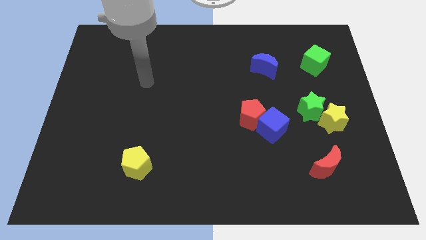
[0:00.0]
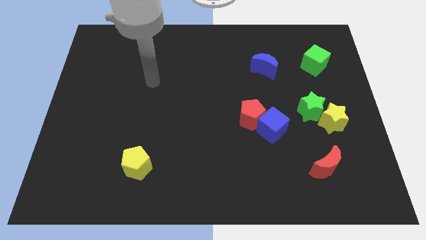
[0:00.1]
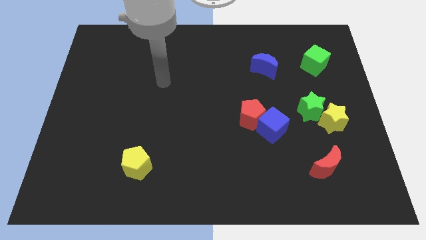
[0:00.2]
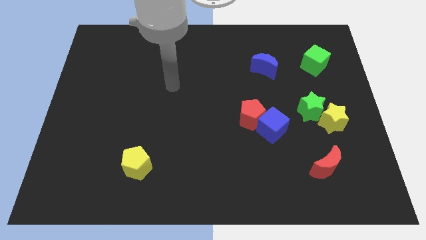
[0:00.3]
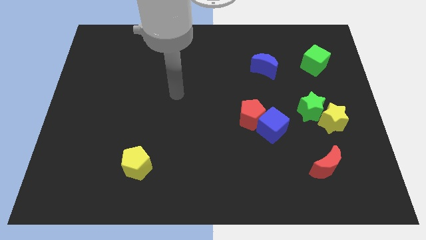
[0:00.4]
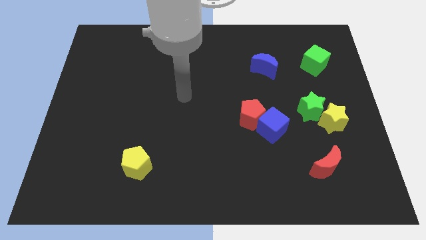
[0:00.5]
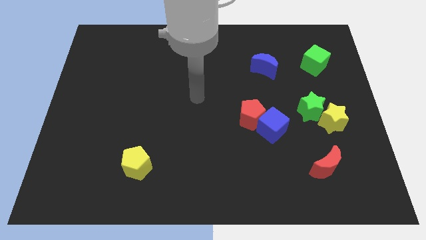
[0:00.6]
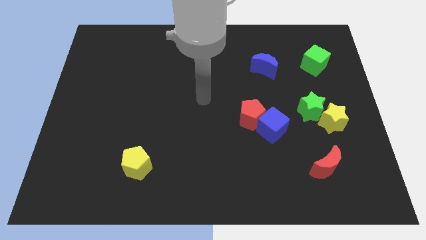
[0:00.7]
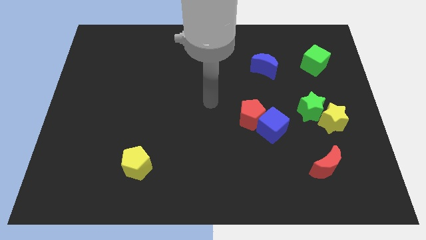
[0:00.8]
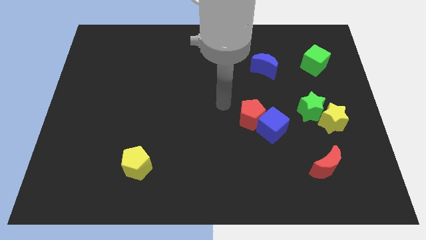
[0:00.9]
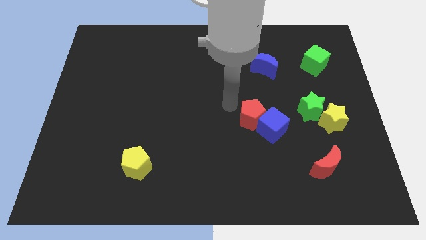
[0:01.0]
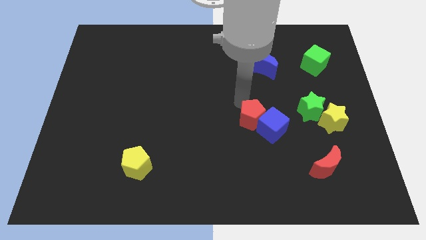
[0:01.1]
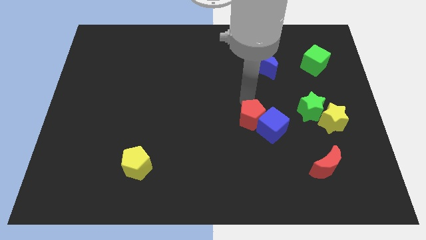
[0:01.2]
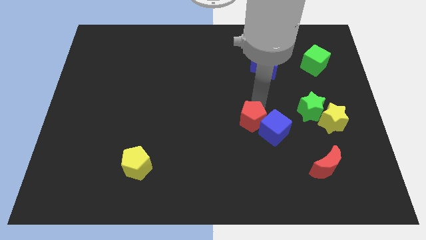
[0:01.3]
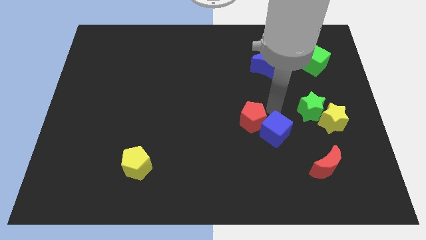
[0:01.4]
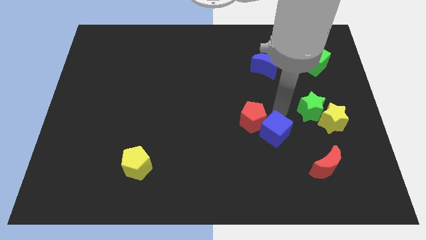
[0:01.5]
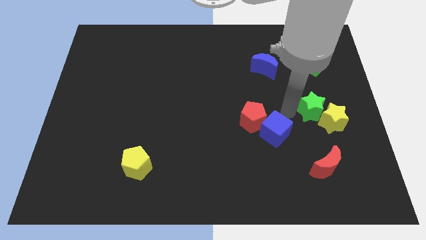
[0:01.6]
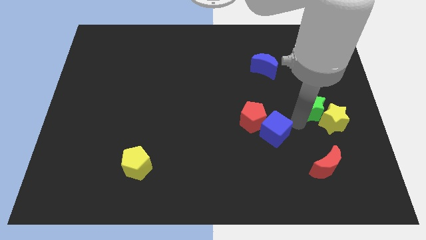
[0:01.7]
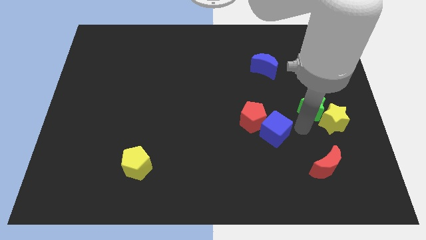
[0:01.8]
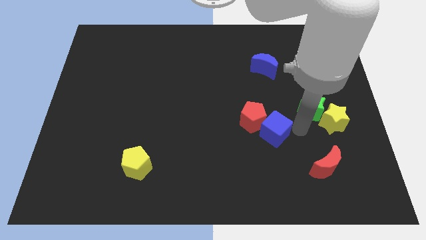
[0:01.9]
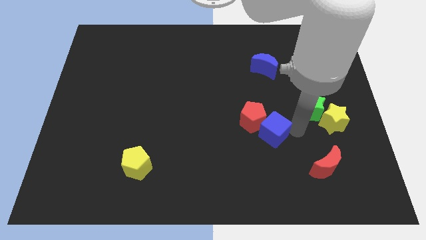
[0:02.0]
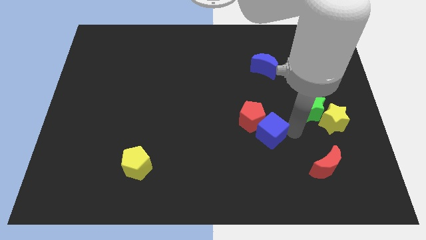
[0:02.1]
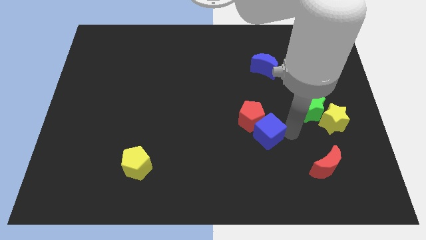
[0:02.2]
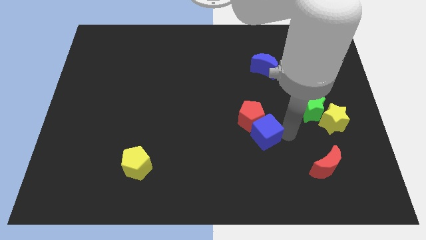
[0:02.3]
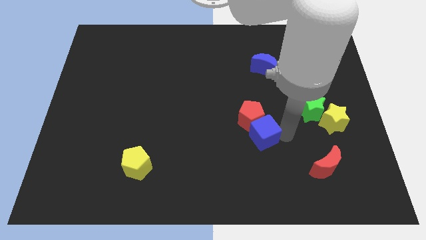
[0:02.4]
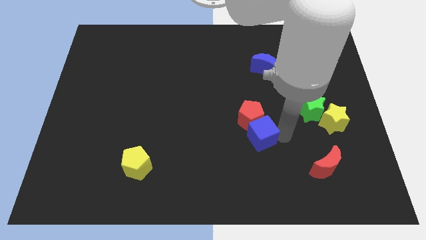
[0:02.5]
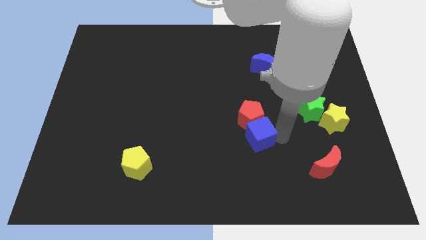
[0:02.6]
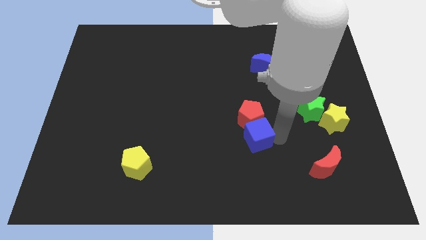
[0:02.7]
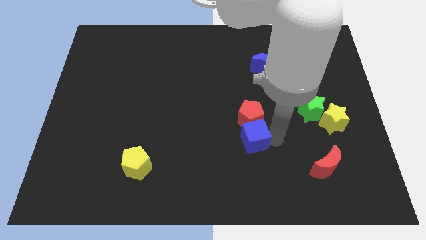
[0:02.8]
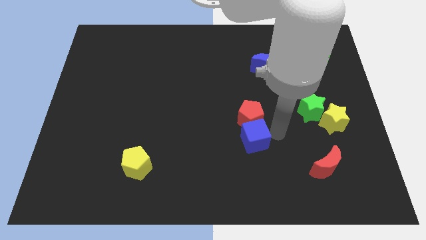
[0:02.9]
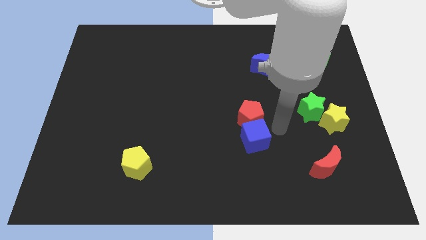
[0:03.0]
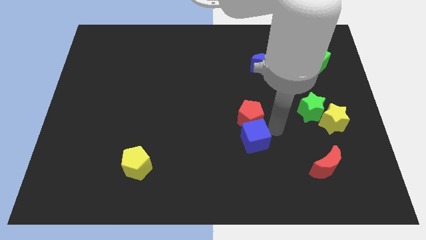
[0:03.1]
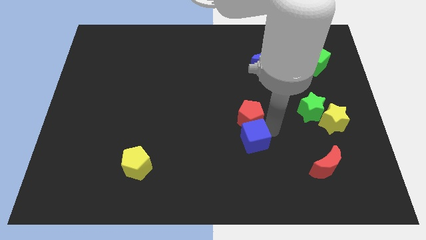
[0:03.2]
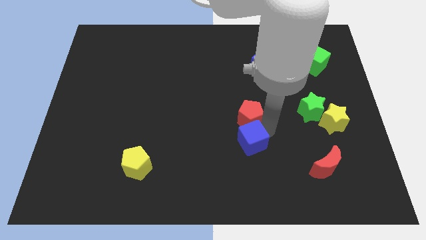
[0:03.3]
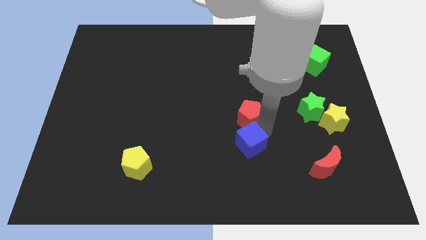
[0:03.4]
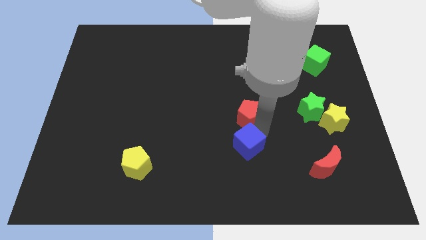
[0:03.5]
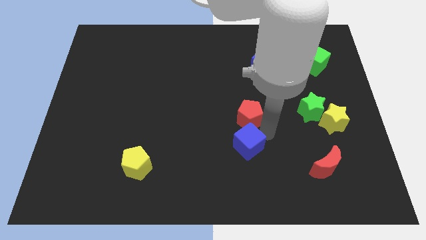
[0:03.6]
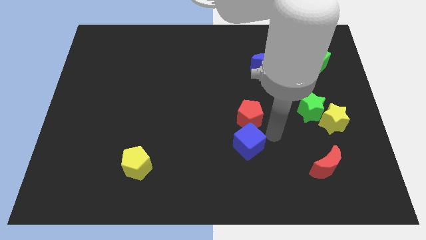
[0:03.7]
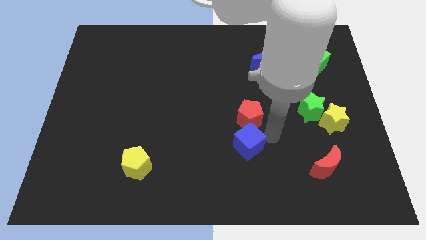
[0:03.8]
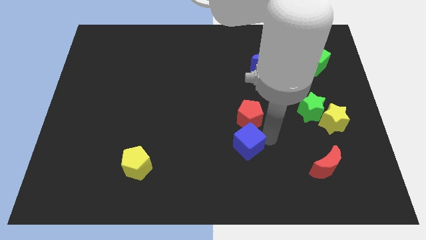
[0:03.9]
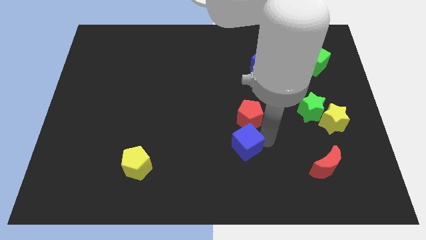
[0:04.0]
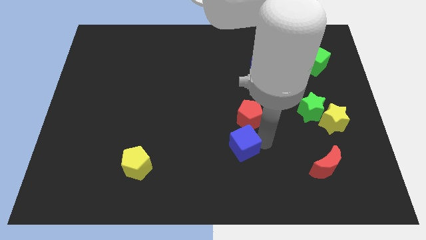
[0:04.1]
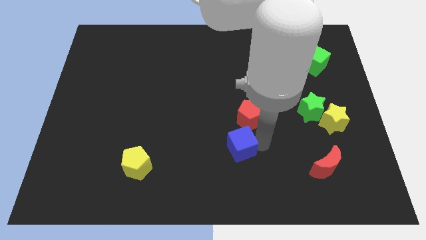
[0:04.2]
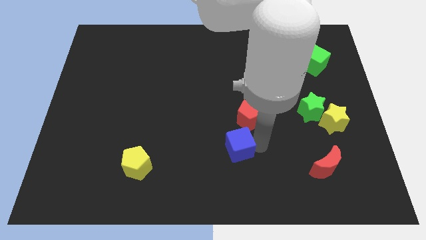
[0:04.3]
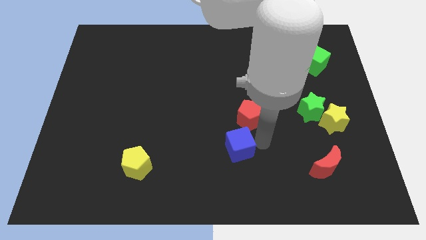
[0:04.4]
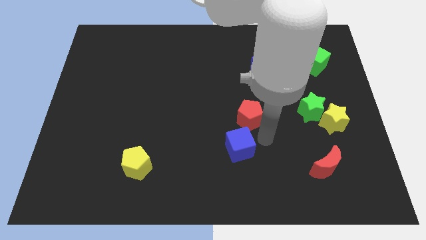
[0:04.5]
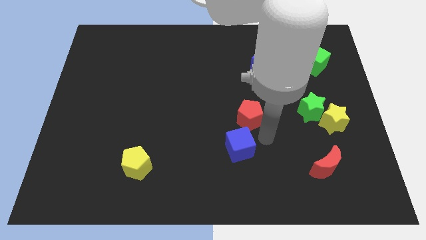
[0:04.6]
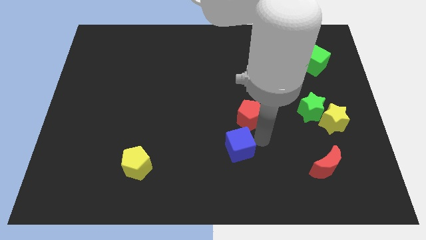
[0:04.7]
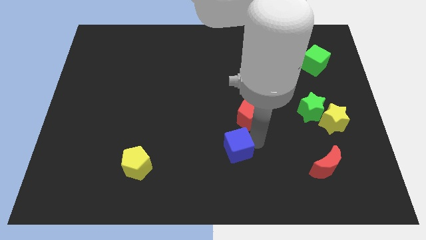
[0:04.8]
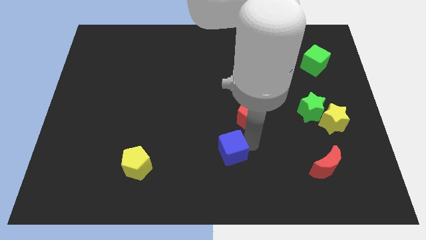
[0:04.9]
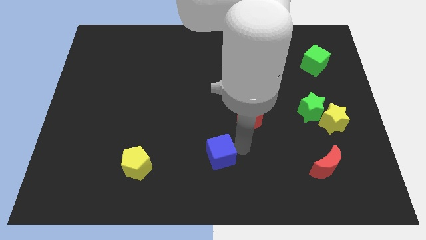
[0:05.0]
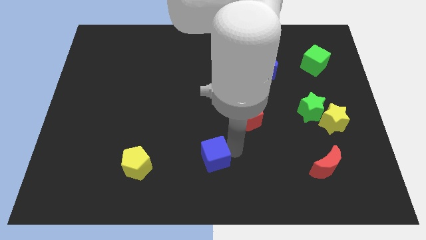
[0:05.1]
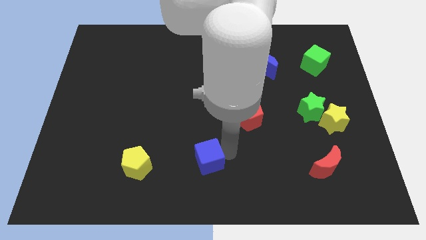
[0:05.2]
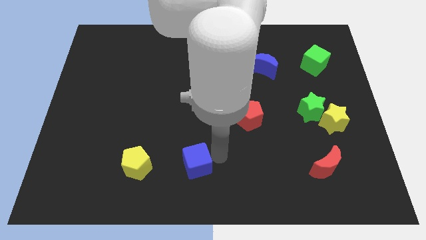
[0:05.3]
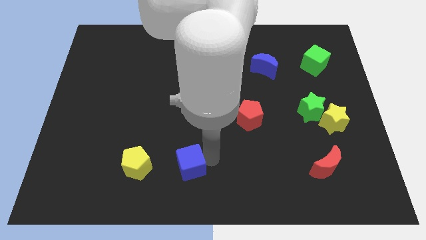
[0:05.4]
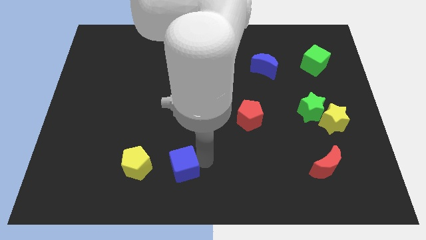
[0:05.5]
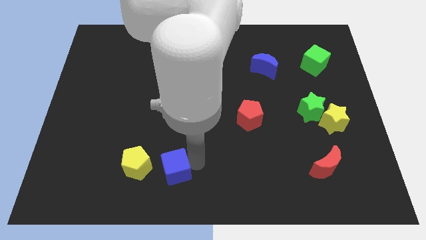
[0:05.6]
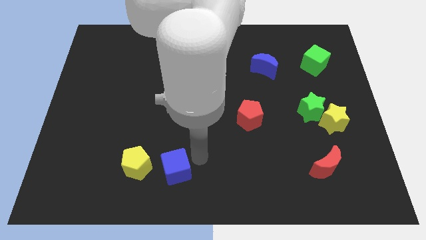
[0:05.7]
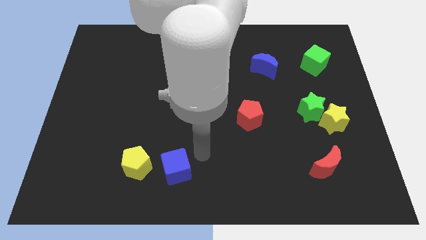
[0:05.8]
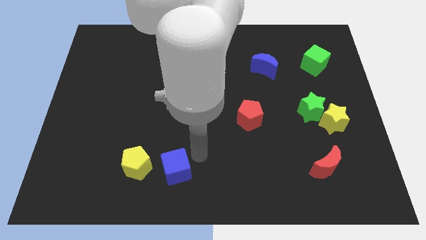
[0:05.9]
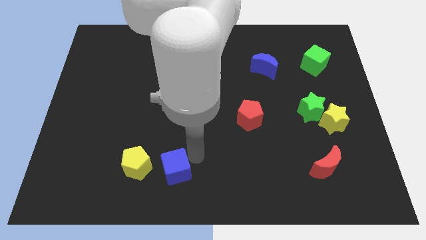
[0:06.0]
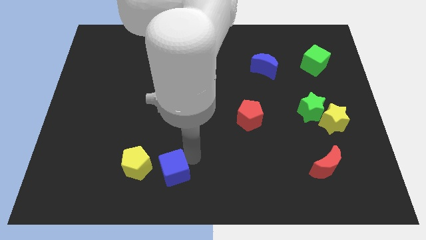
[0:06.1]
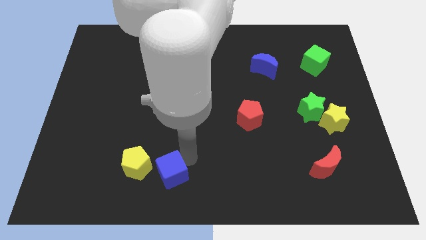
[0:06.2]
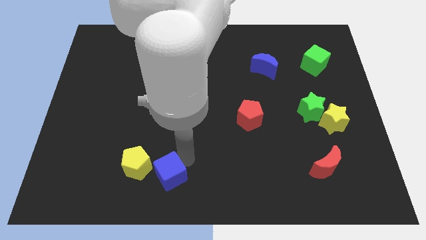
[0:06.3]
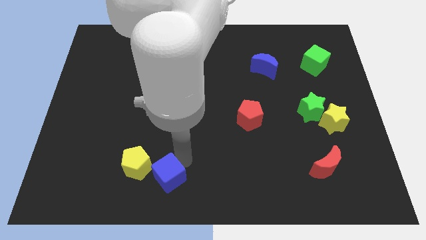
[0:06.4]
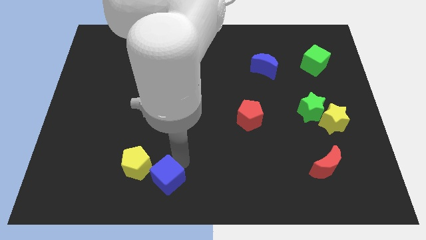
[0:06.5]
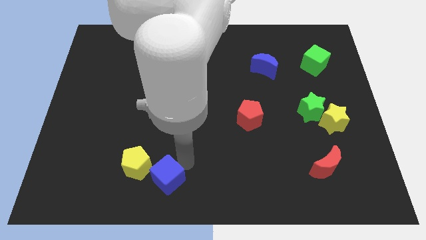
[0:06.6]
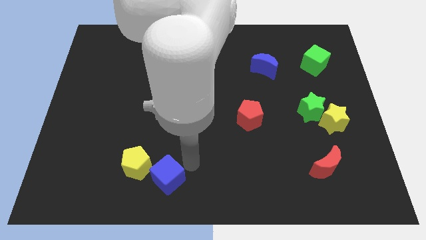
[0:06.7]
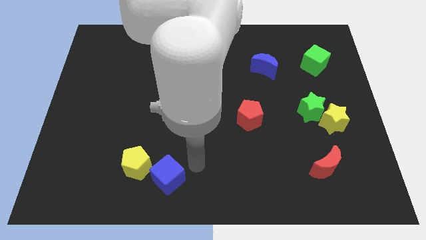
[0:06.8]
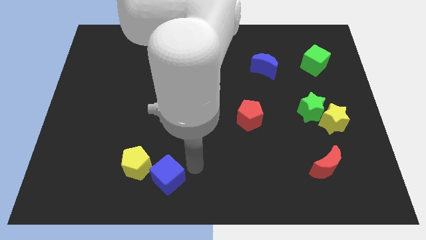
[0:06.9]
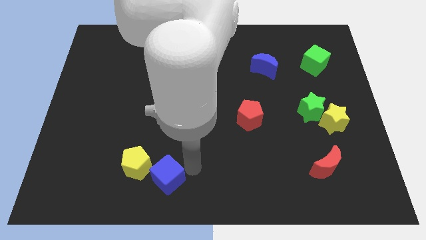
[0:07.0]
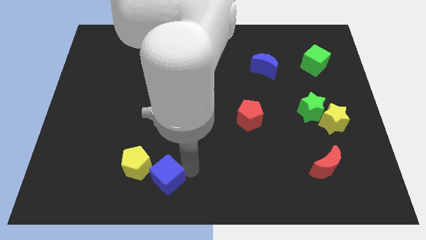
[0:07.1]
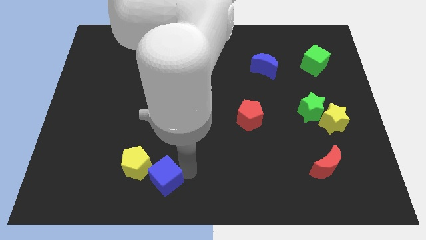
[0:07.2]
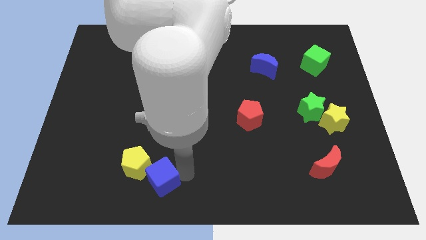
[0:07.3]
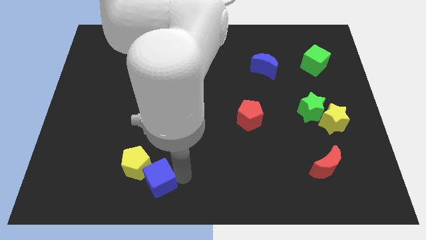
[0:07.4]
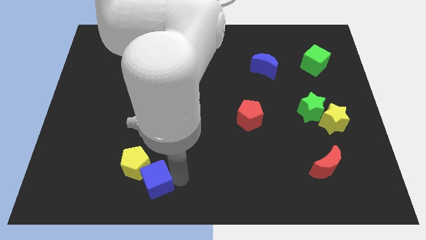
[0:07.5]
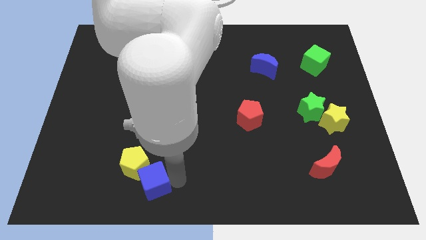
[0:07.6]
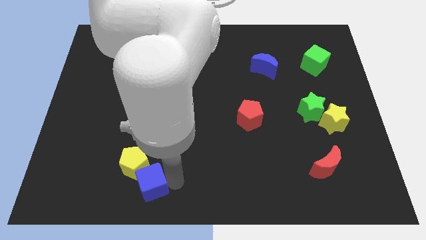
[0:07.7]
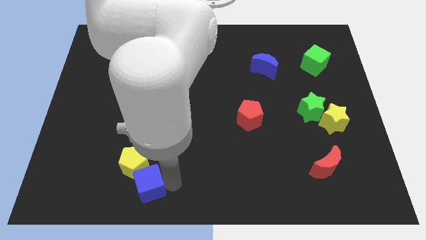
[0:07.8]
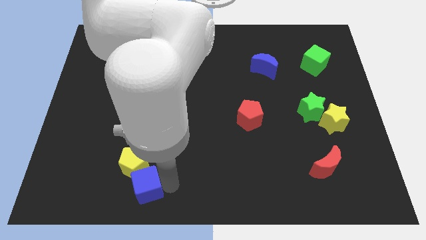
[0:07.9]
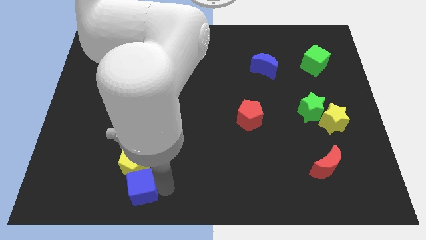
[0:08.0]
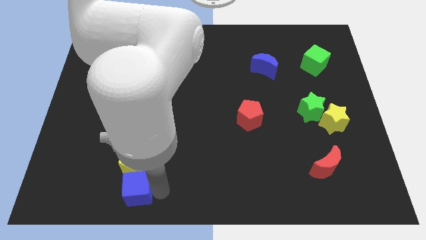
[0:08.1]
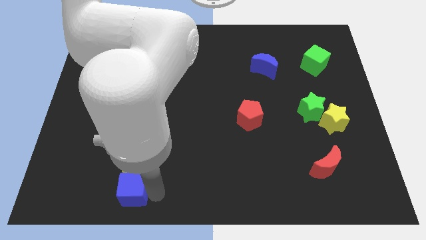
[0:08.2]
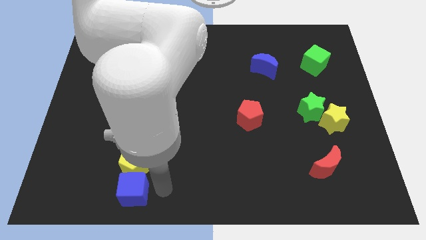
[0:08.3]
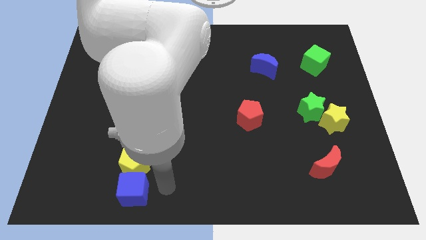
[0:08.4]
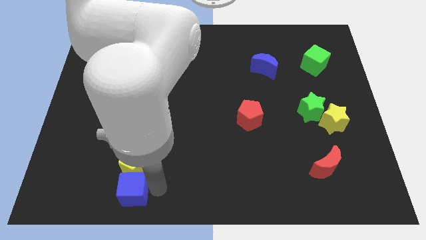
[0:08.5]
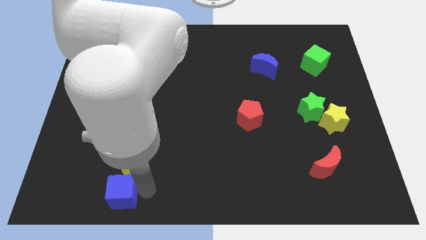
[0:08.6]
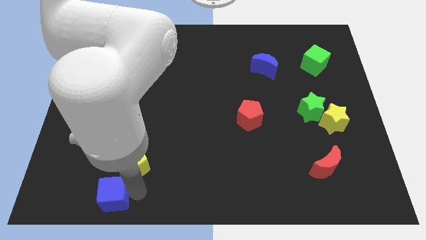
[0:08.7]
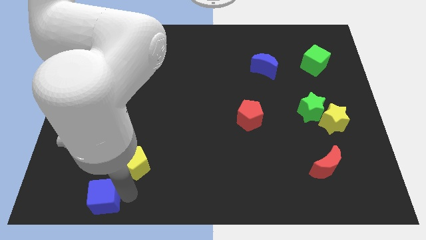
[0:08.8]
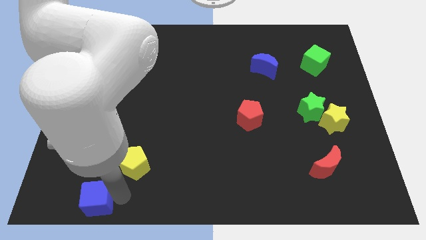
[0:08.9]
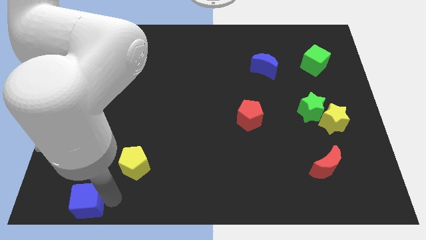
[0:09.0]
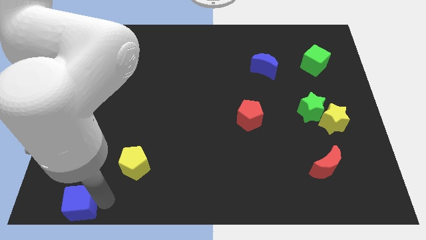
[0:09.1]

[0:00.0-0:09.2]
move the blue cube to the bottom left of the board
